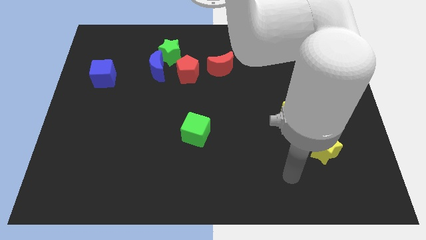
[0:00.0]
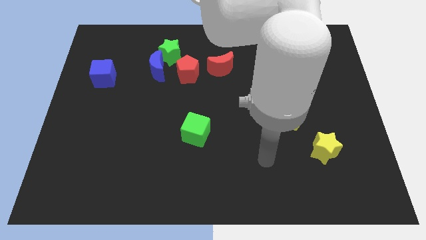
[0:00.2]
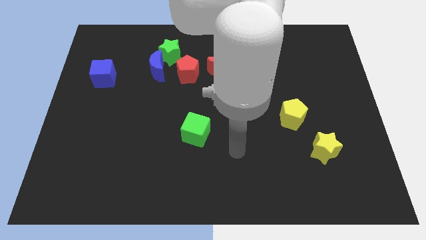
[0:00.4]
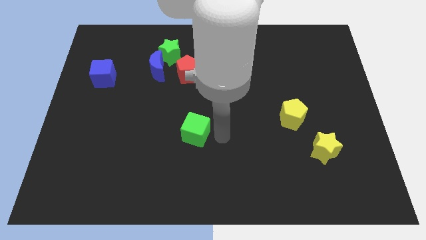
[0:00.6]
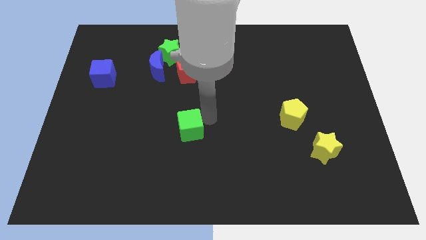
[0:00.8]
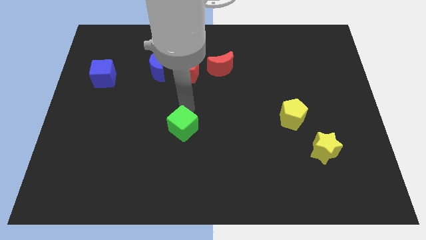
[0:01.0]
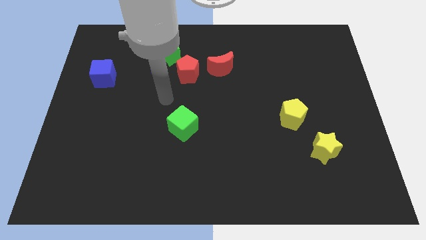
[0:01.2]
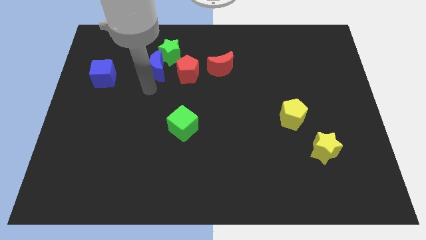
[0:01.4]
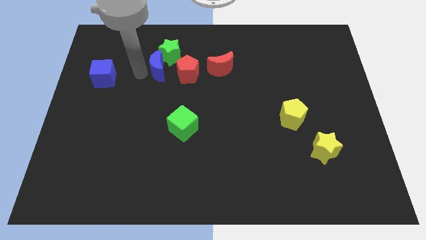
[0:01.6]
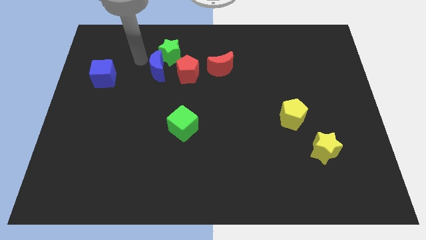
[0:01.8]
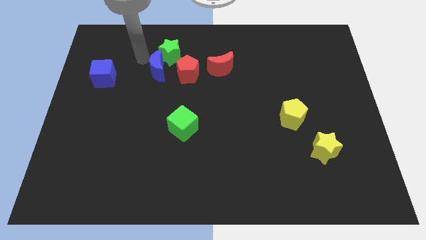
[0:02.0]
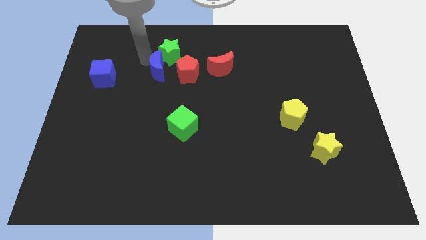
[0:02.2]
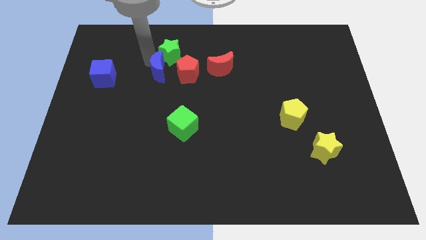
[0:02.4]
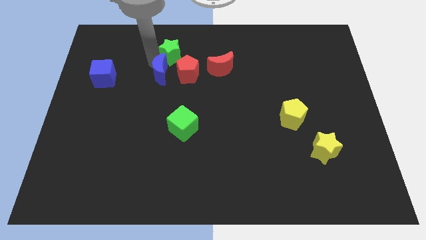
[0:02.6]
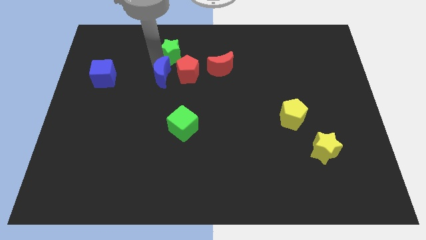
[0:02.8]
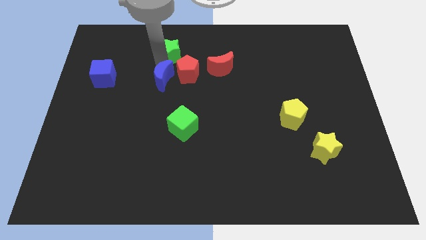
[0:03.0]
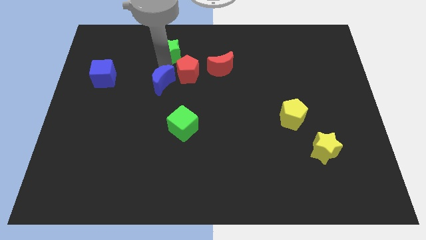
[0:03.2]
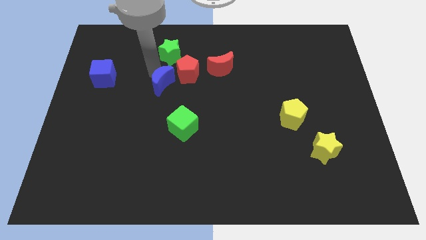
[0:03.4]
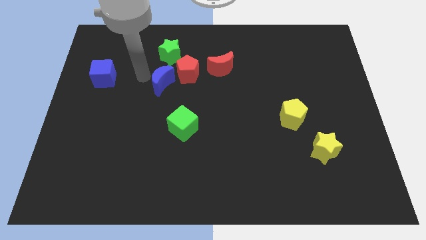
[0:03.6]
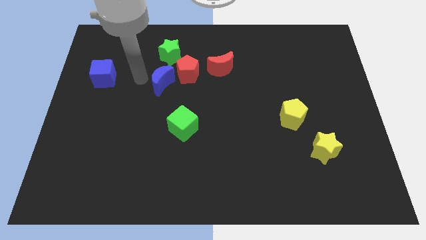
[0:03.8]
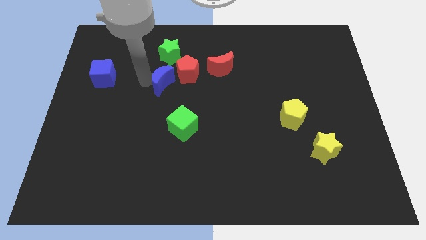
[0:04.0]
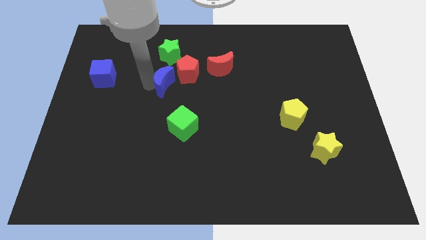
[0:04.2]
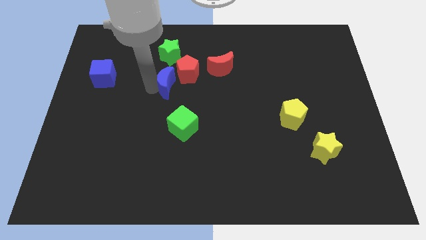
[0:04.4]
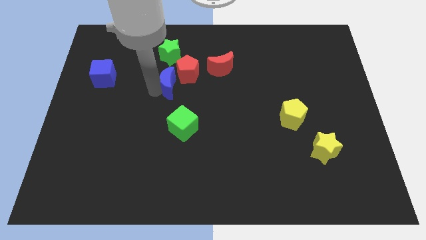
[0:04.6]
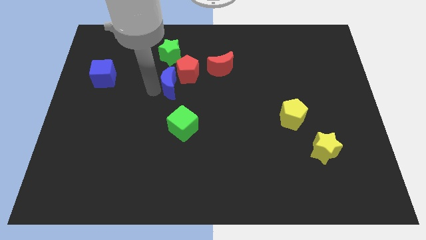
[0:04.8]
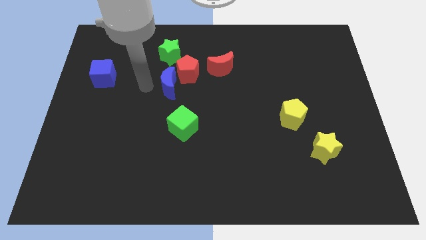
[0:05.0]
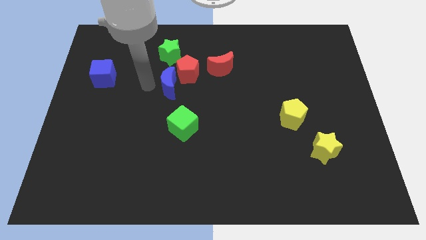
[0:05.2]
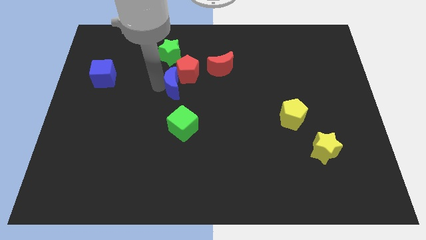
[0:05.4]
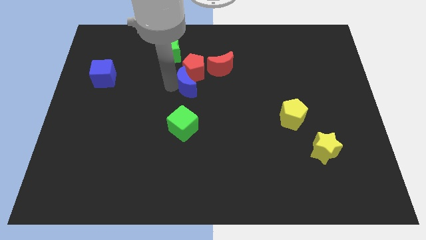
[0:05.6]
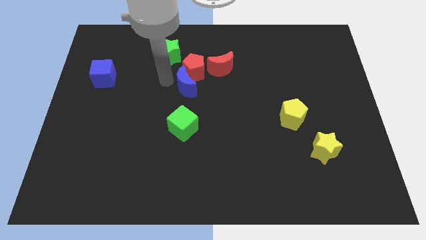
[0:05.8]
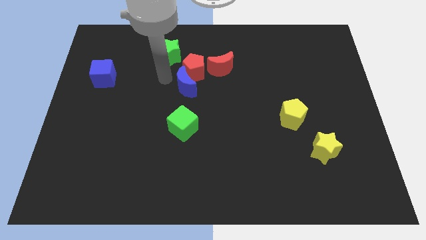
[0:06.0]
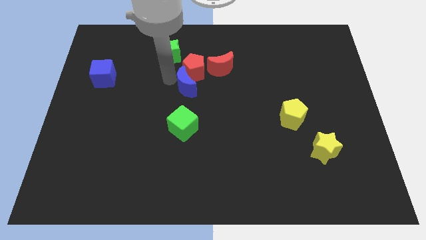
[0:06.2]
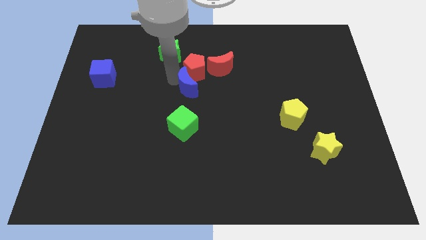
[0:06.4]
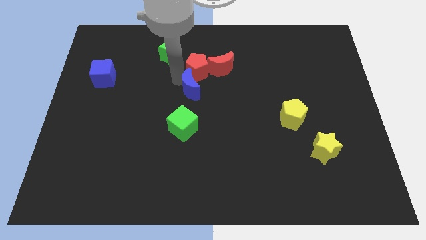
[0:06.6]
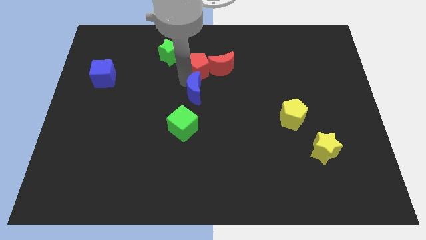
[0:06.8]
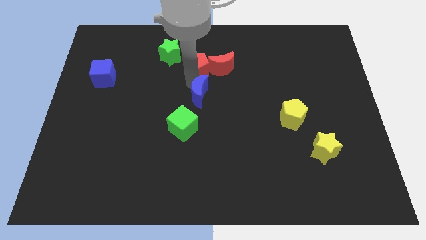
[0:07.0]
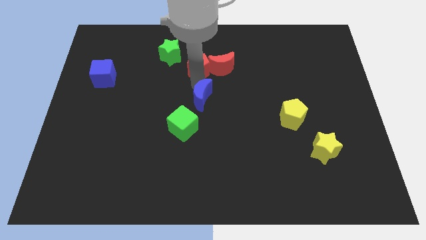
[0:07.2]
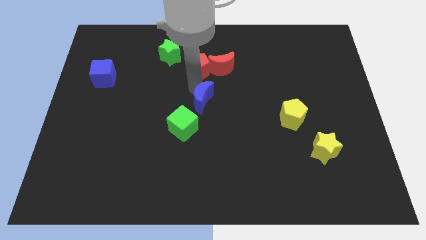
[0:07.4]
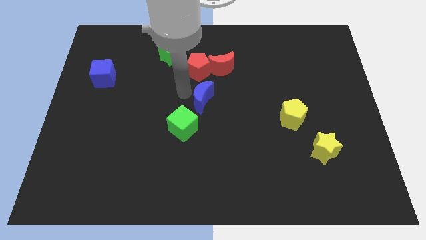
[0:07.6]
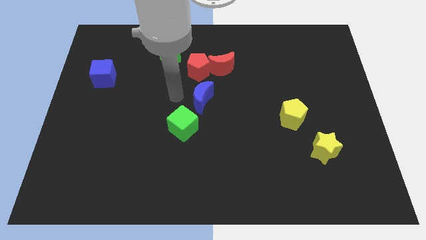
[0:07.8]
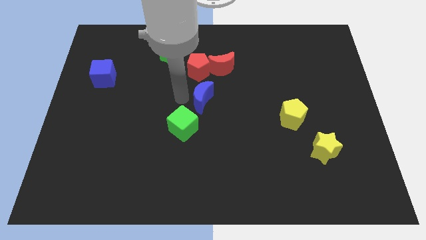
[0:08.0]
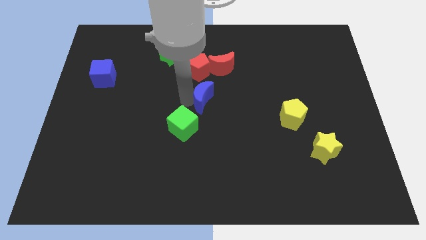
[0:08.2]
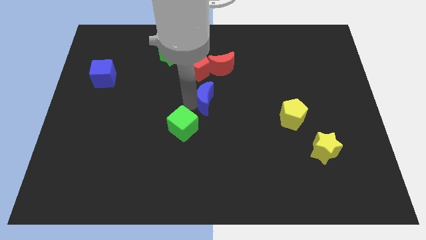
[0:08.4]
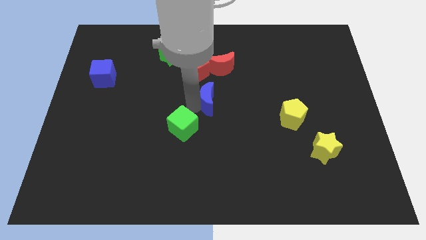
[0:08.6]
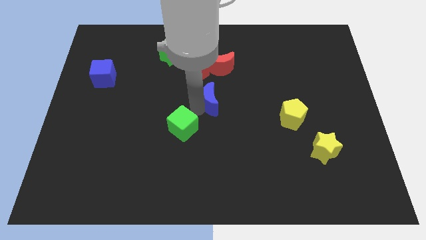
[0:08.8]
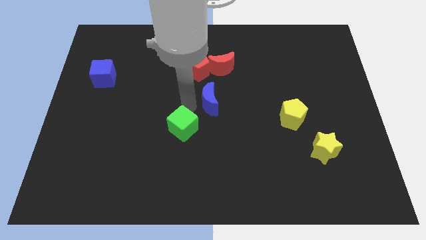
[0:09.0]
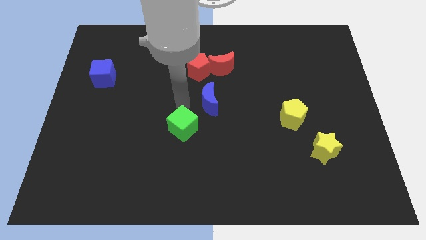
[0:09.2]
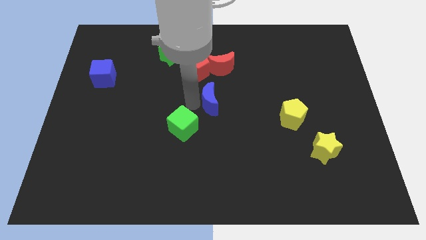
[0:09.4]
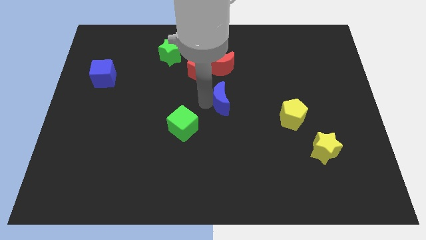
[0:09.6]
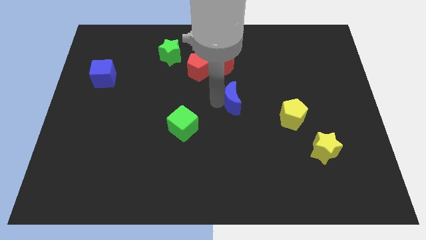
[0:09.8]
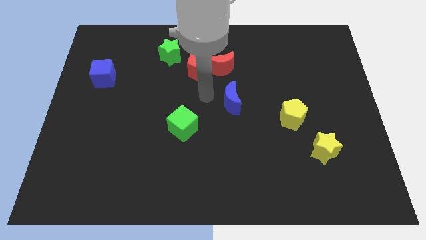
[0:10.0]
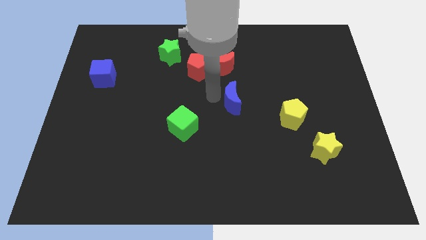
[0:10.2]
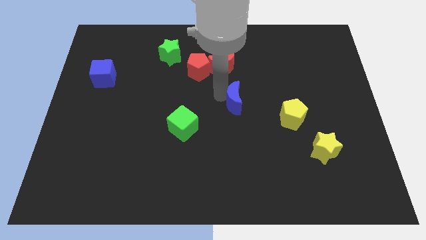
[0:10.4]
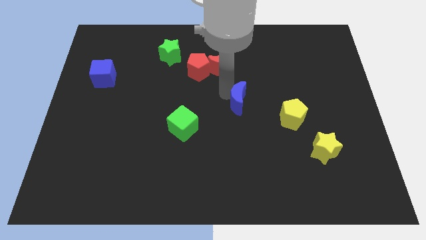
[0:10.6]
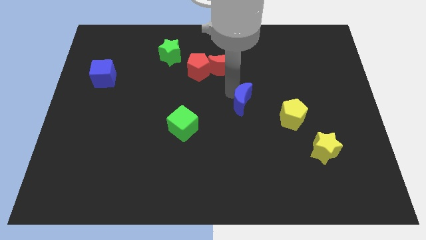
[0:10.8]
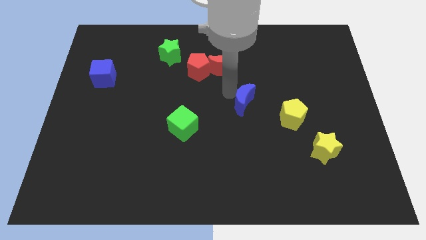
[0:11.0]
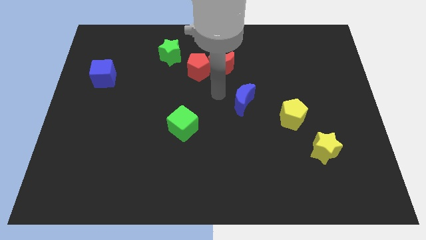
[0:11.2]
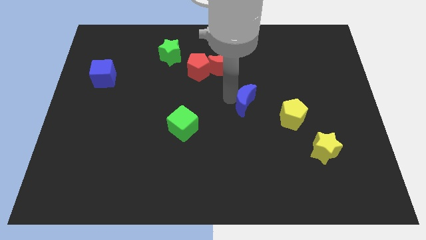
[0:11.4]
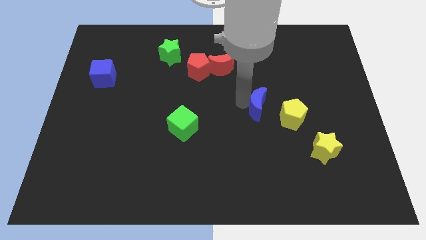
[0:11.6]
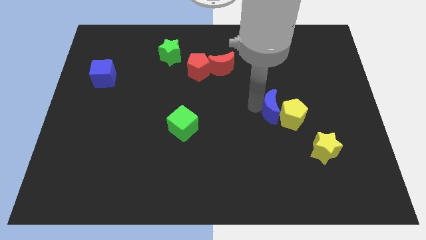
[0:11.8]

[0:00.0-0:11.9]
move the blue moon towards the yellow pentagon
